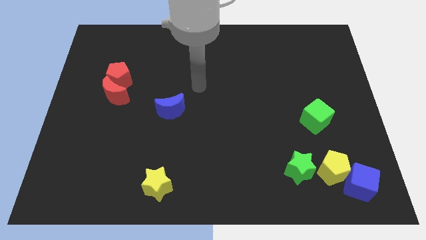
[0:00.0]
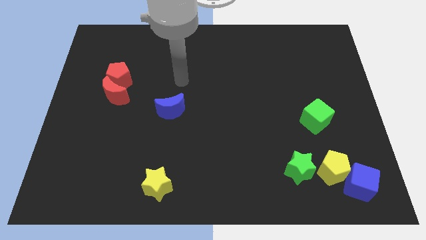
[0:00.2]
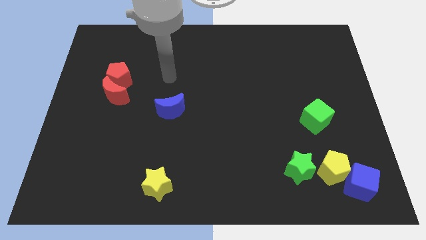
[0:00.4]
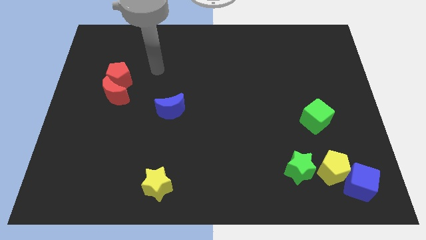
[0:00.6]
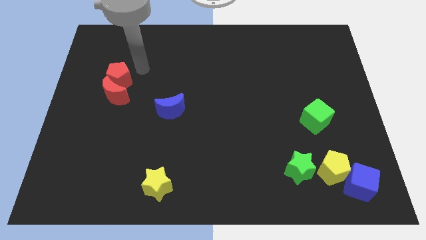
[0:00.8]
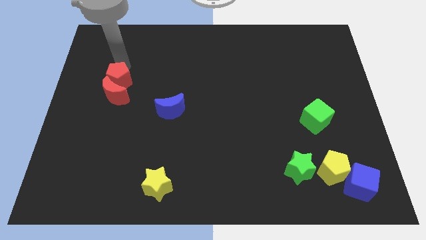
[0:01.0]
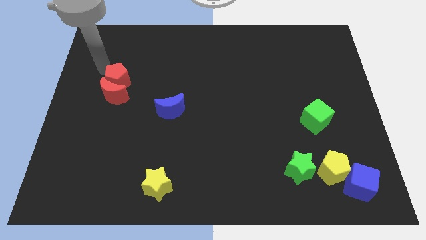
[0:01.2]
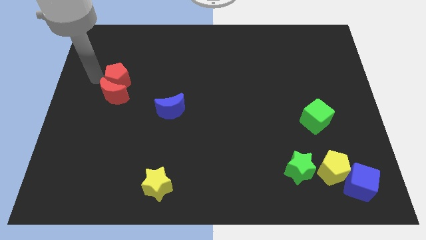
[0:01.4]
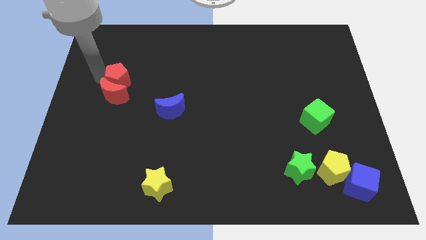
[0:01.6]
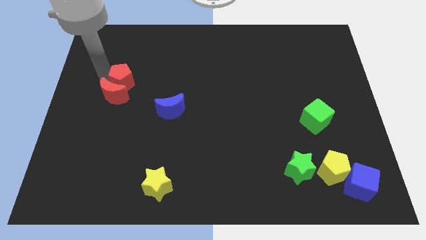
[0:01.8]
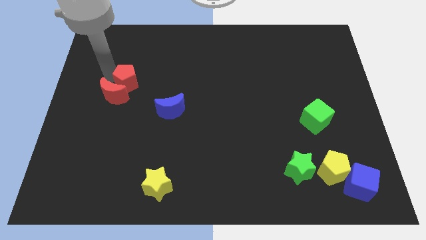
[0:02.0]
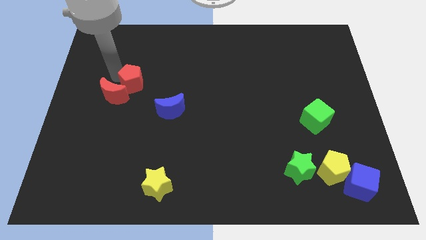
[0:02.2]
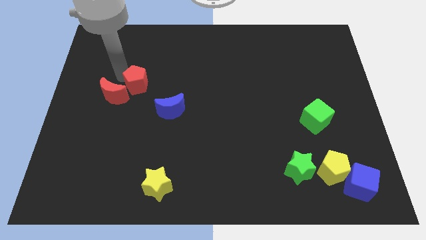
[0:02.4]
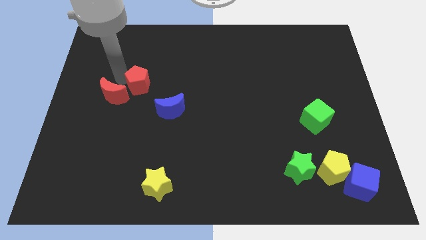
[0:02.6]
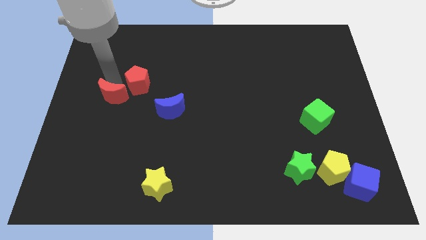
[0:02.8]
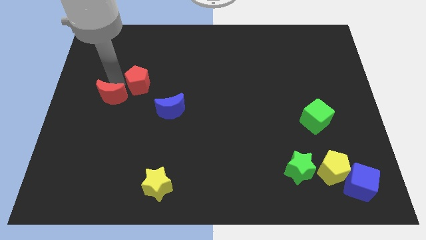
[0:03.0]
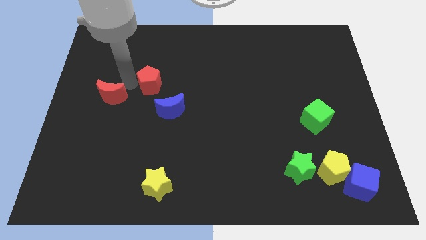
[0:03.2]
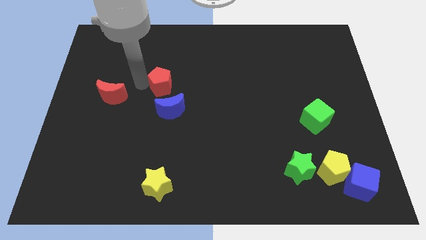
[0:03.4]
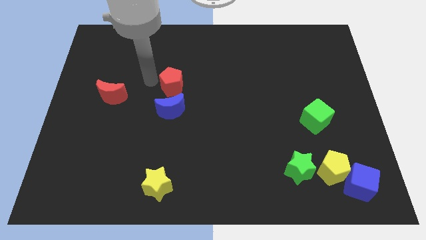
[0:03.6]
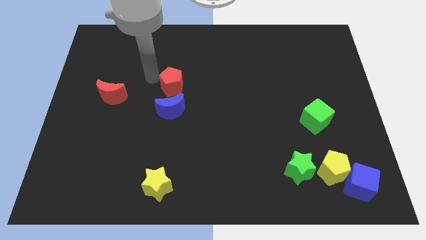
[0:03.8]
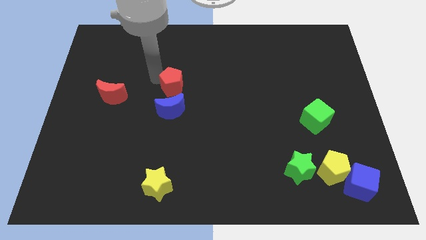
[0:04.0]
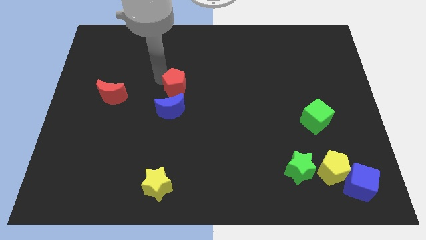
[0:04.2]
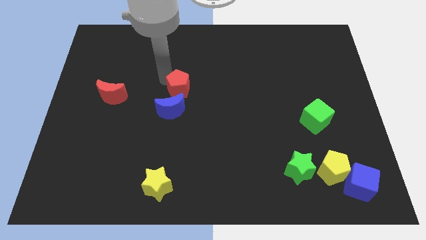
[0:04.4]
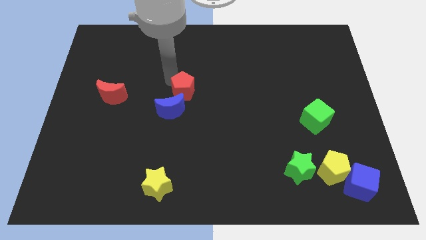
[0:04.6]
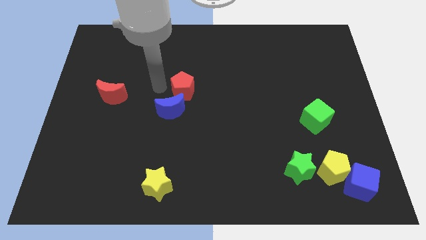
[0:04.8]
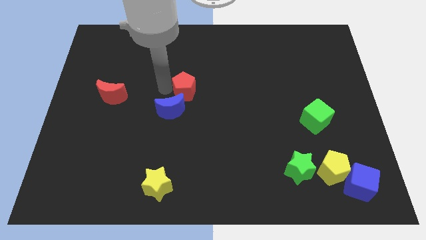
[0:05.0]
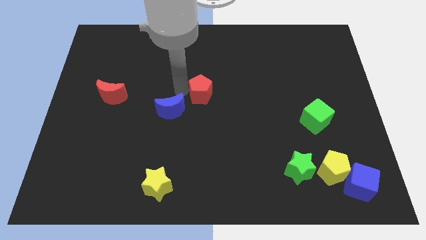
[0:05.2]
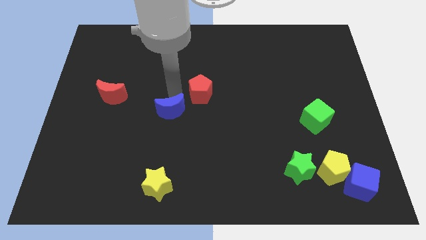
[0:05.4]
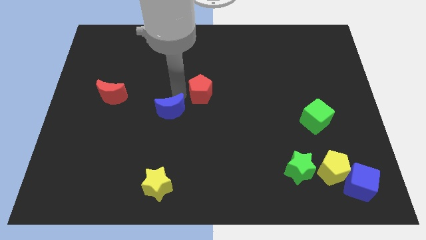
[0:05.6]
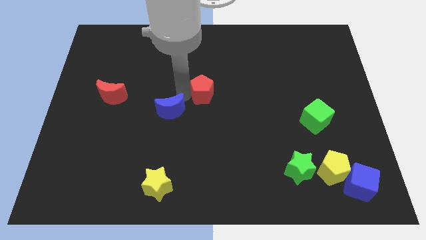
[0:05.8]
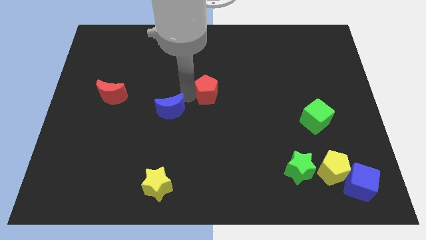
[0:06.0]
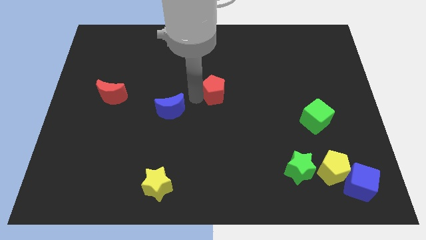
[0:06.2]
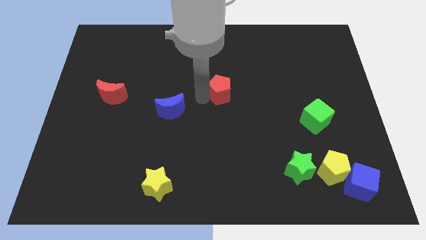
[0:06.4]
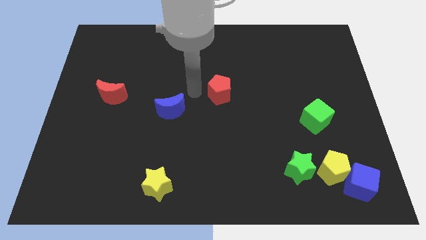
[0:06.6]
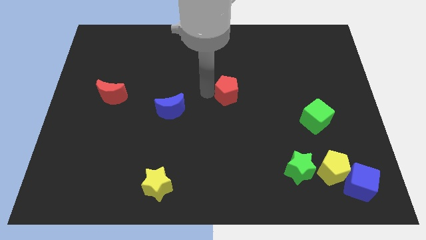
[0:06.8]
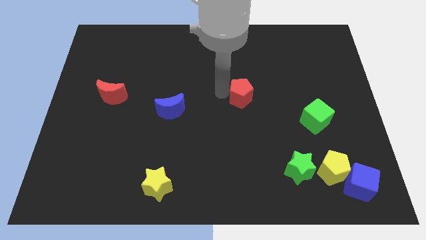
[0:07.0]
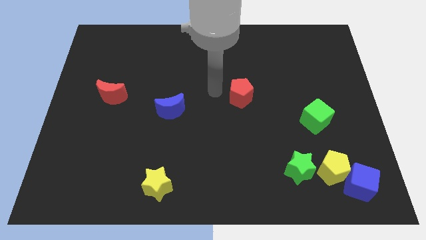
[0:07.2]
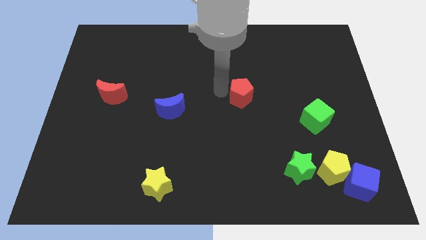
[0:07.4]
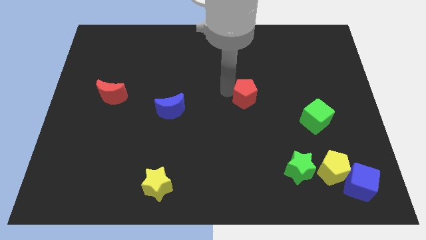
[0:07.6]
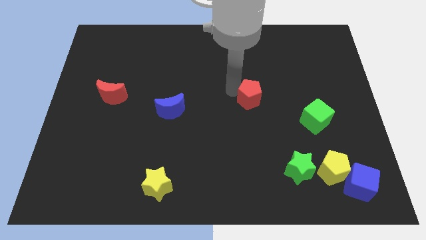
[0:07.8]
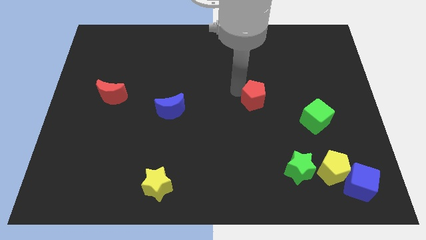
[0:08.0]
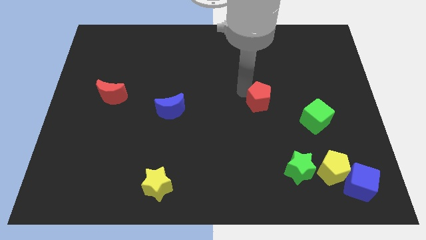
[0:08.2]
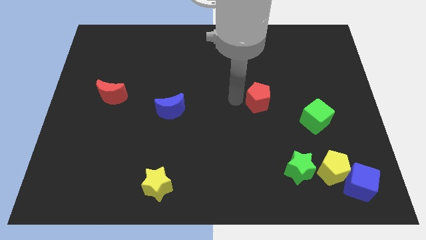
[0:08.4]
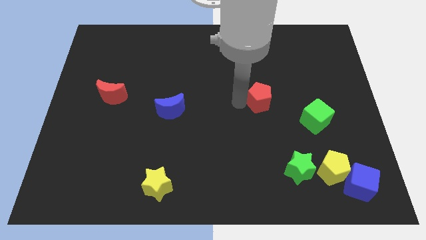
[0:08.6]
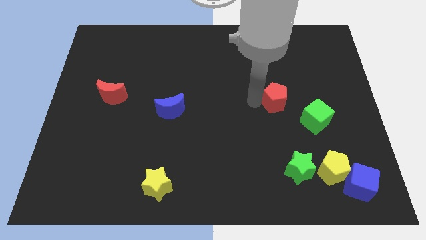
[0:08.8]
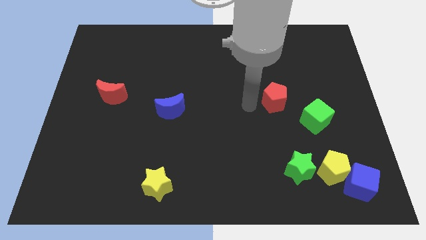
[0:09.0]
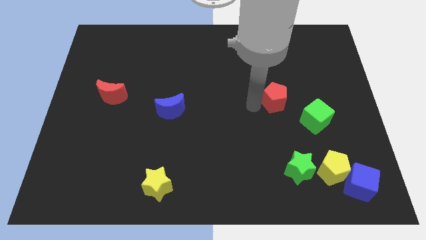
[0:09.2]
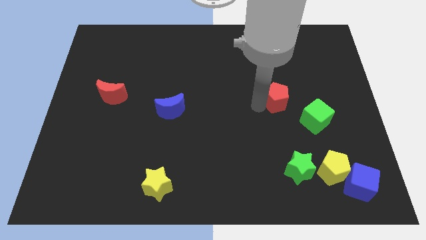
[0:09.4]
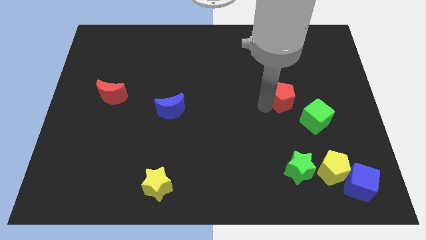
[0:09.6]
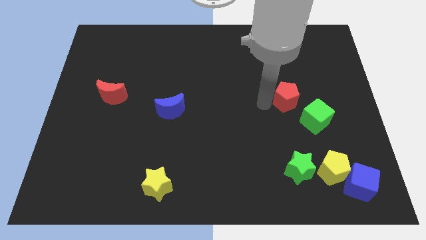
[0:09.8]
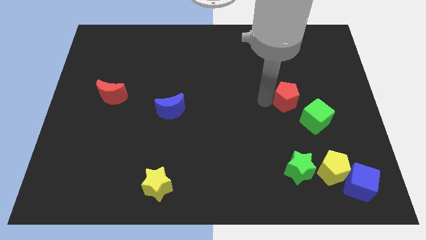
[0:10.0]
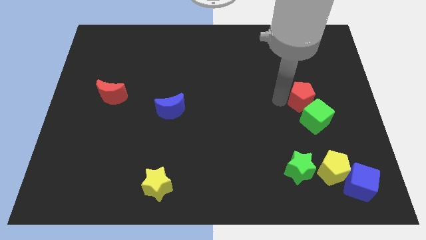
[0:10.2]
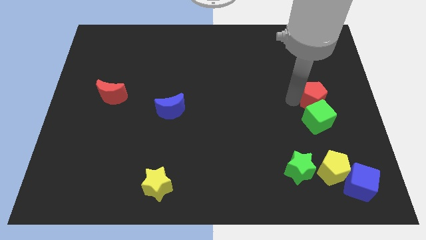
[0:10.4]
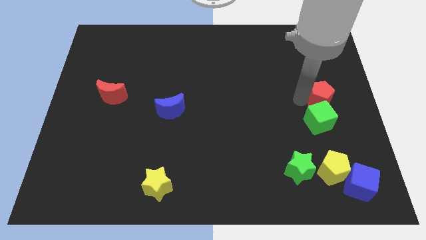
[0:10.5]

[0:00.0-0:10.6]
put the red pentagon to the right side

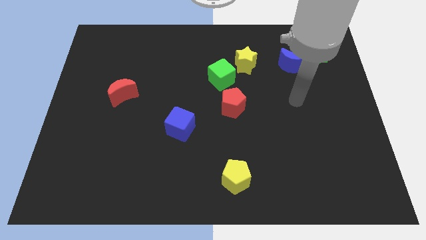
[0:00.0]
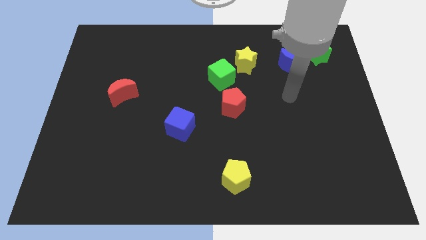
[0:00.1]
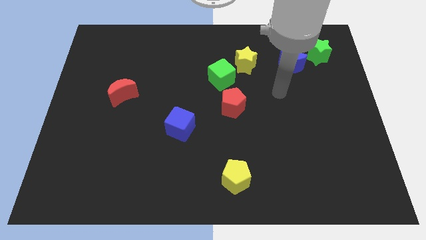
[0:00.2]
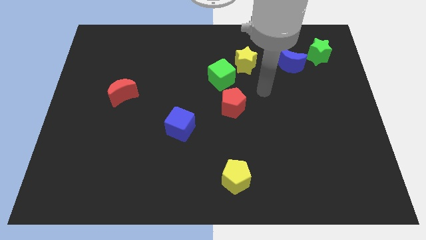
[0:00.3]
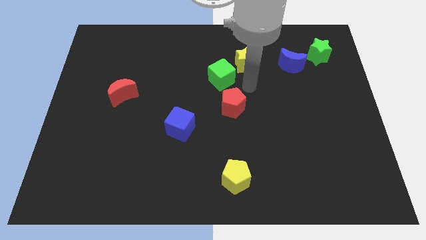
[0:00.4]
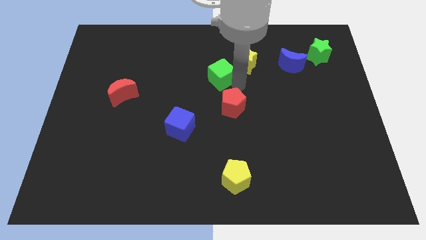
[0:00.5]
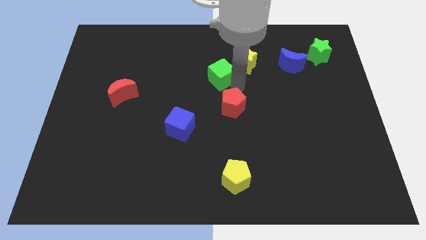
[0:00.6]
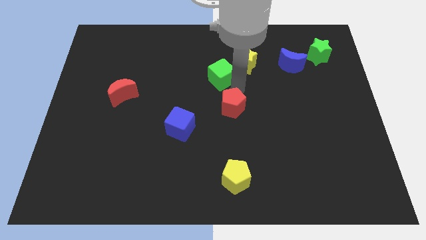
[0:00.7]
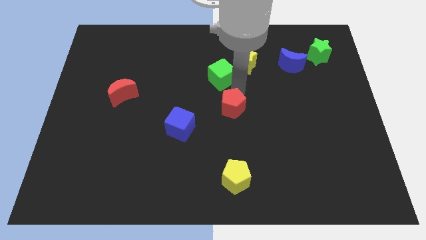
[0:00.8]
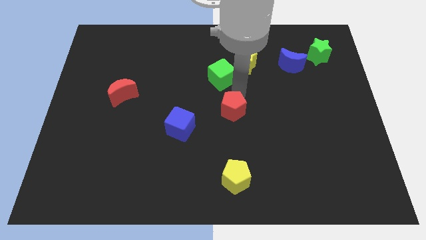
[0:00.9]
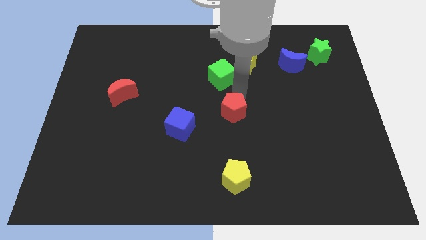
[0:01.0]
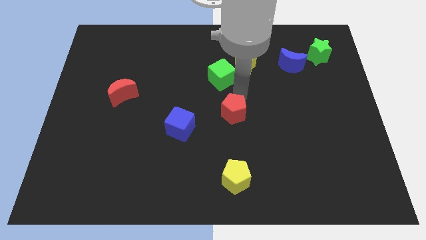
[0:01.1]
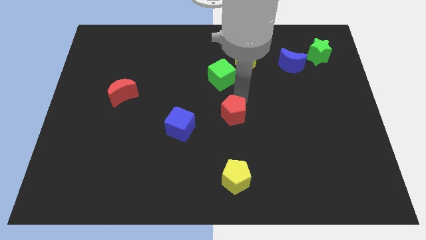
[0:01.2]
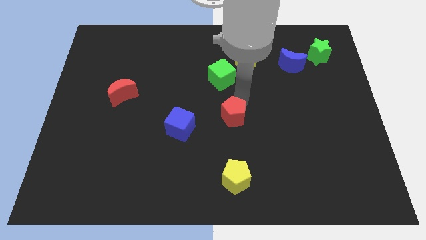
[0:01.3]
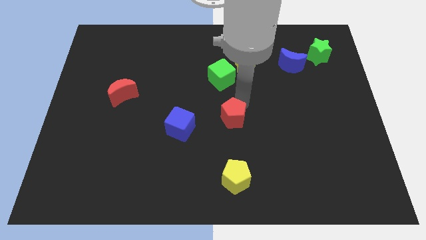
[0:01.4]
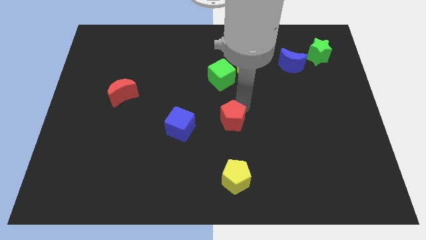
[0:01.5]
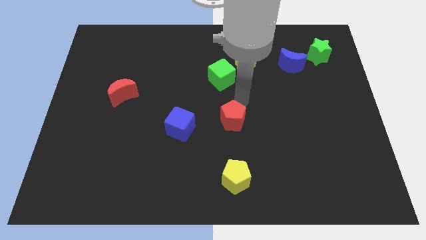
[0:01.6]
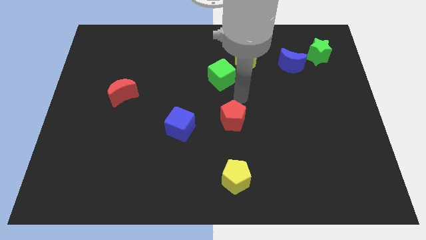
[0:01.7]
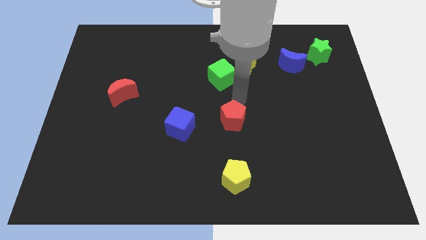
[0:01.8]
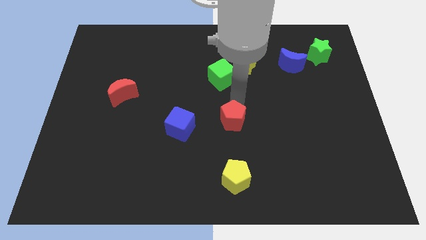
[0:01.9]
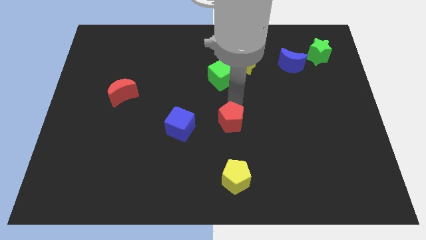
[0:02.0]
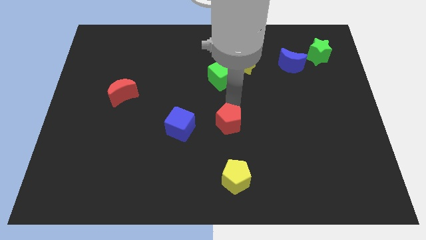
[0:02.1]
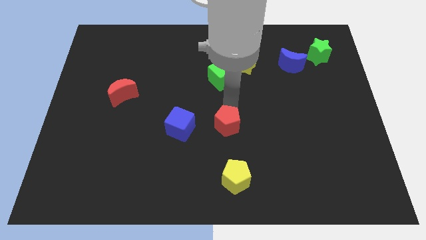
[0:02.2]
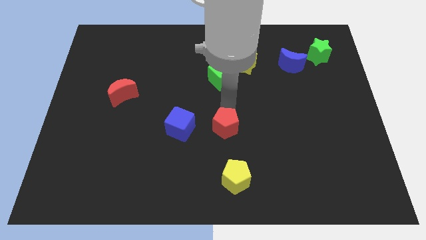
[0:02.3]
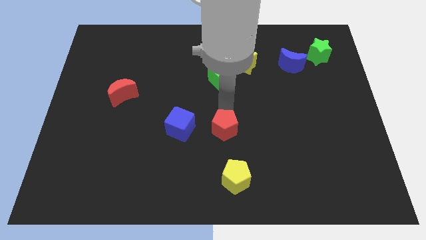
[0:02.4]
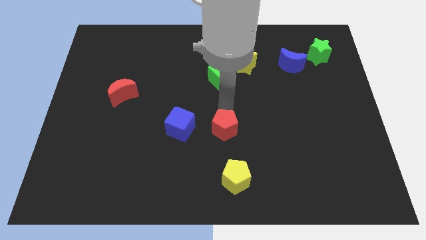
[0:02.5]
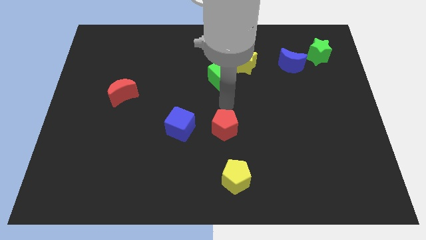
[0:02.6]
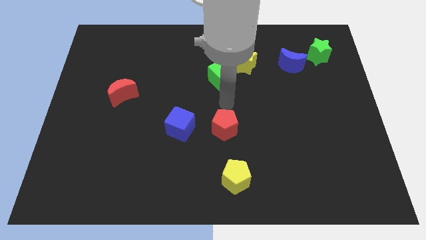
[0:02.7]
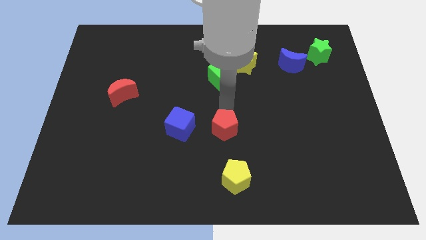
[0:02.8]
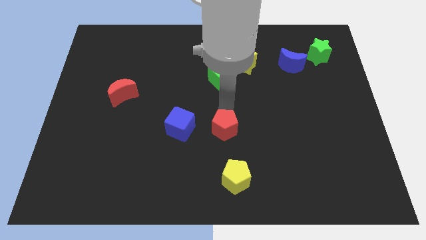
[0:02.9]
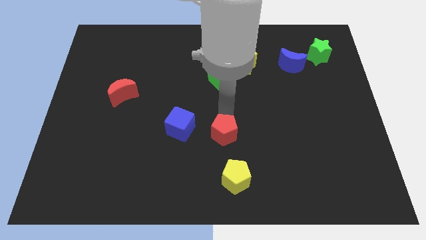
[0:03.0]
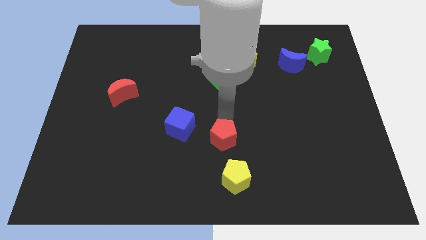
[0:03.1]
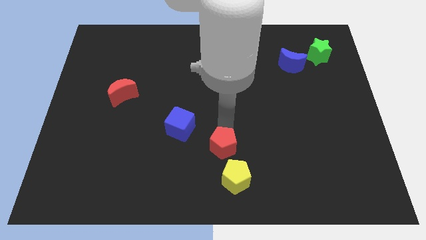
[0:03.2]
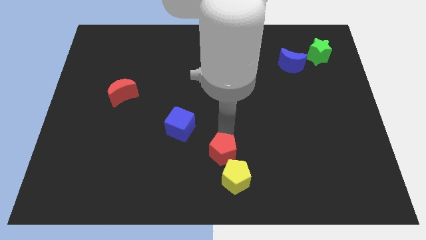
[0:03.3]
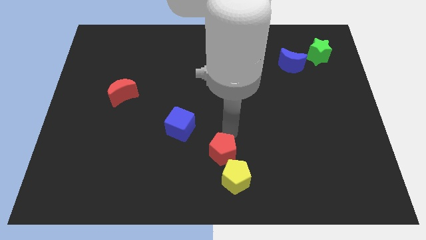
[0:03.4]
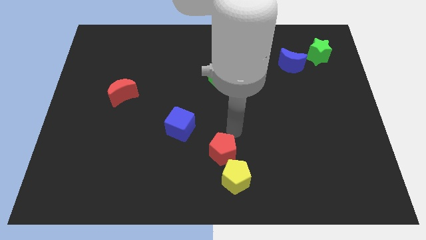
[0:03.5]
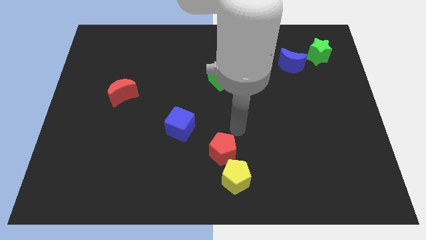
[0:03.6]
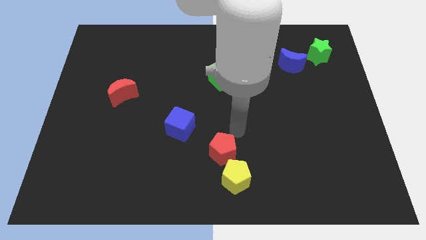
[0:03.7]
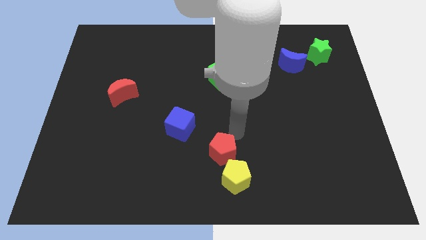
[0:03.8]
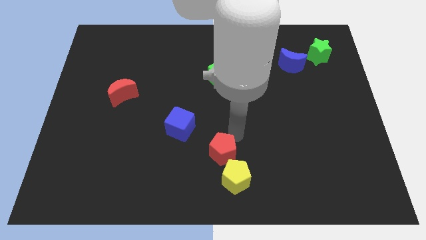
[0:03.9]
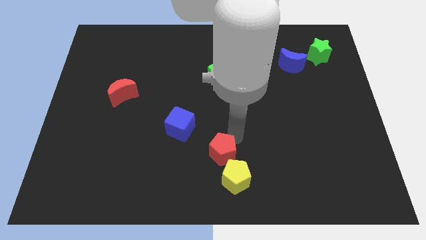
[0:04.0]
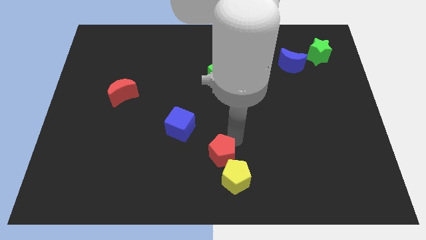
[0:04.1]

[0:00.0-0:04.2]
move the red pentagon to the bottom
